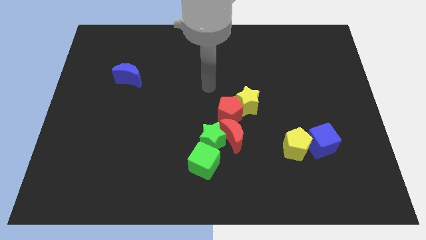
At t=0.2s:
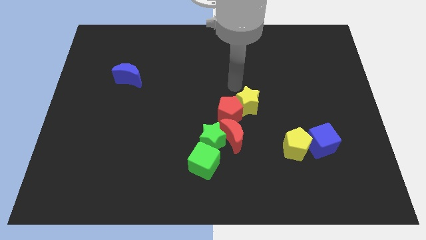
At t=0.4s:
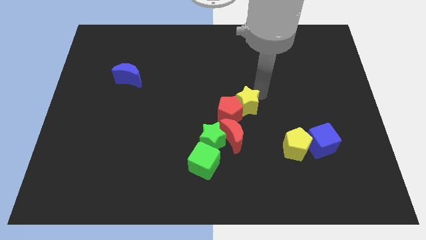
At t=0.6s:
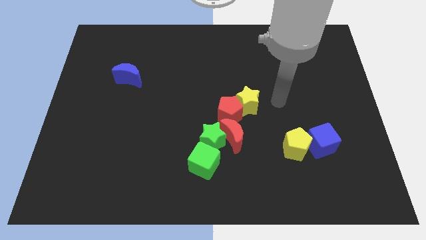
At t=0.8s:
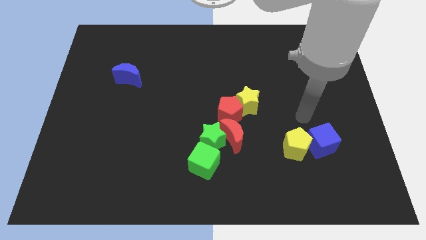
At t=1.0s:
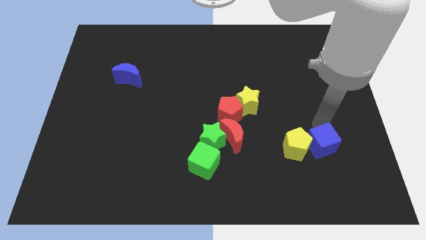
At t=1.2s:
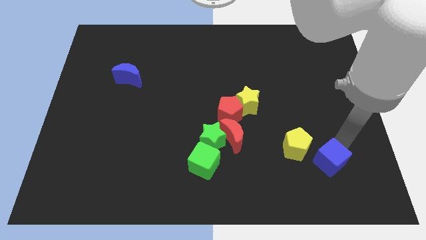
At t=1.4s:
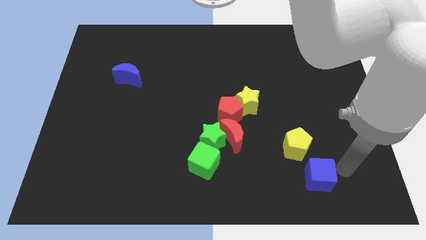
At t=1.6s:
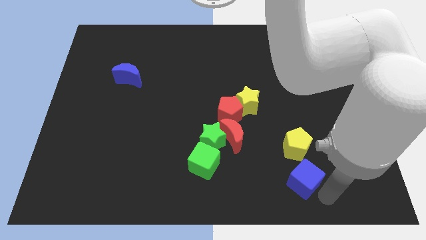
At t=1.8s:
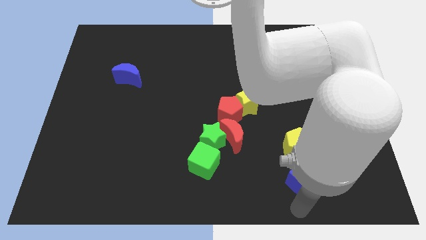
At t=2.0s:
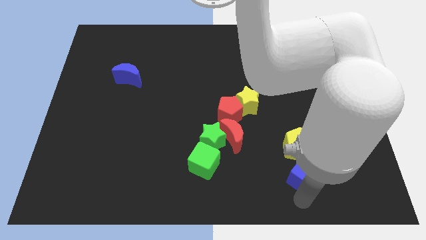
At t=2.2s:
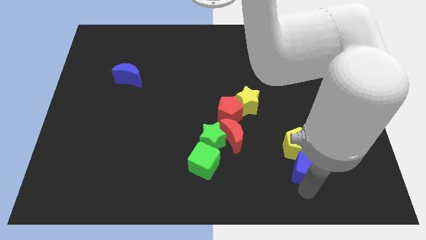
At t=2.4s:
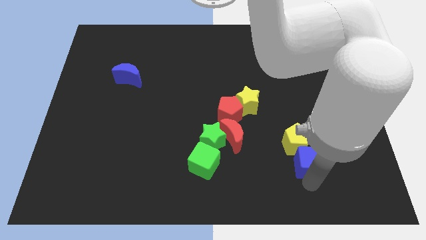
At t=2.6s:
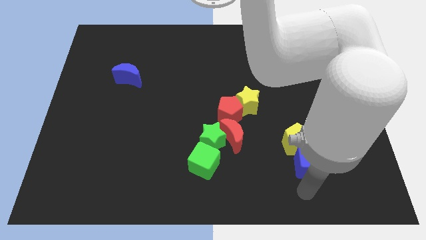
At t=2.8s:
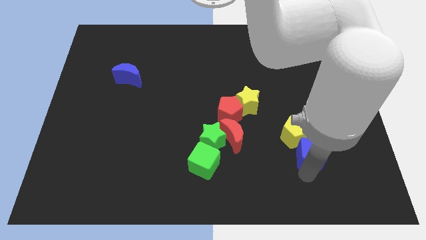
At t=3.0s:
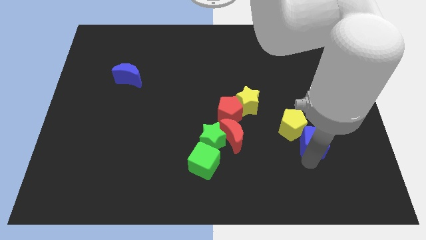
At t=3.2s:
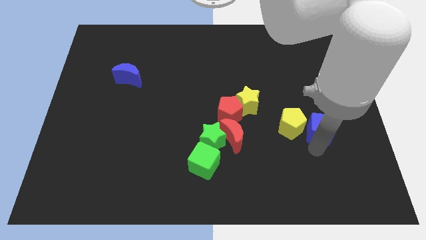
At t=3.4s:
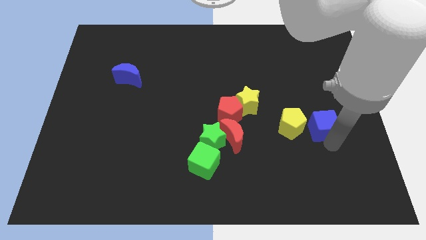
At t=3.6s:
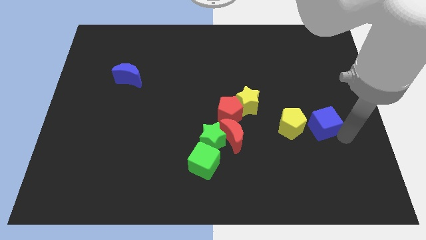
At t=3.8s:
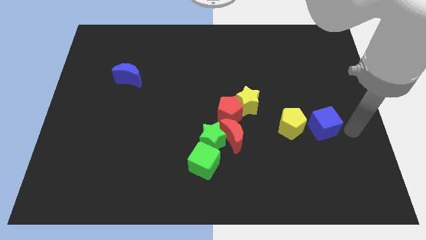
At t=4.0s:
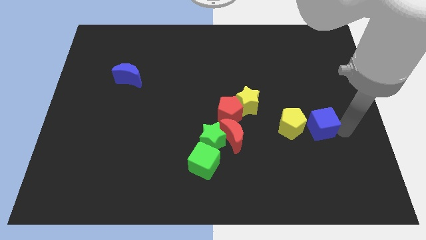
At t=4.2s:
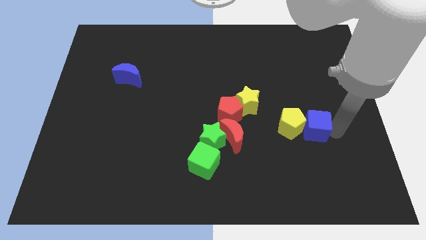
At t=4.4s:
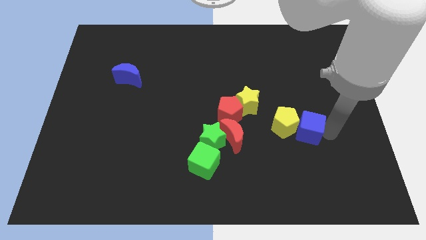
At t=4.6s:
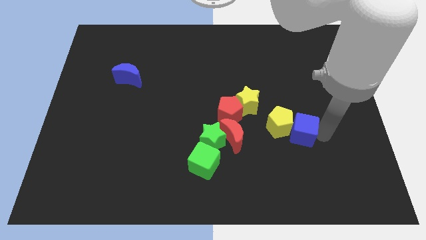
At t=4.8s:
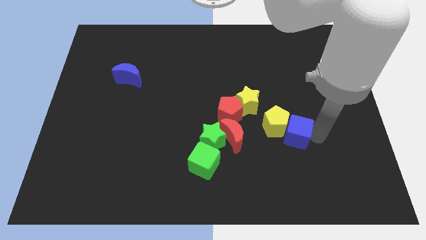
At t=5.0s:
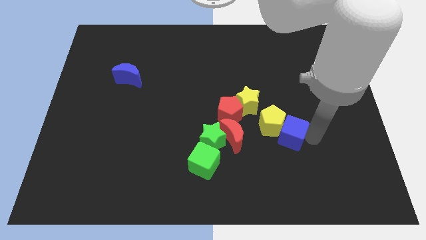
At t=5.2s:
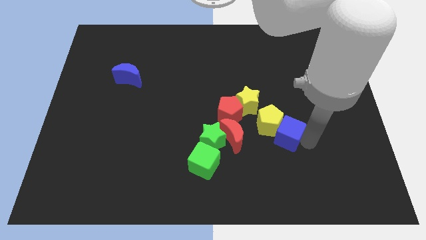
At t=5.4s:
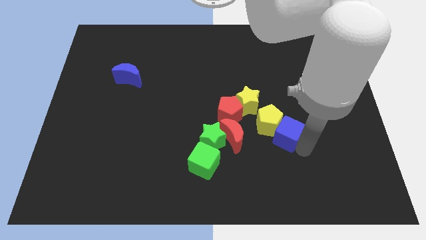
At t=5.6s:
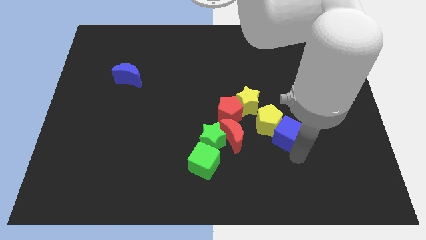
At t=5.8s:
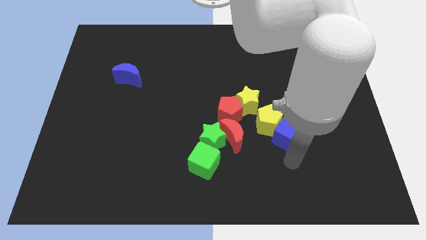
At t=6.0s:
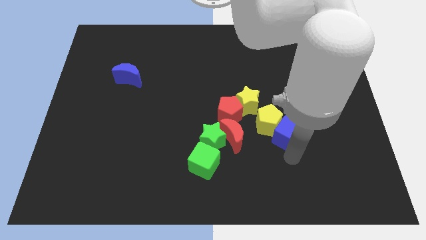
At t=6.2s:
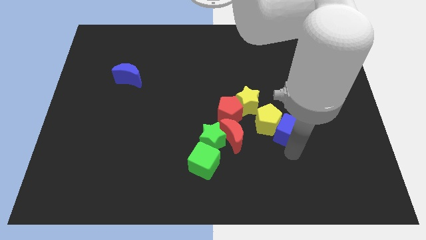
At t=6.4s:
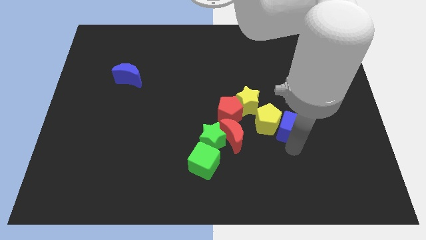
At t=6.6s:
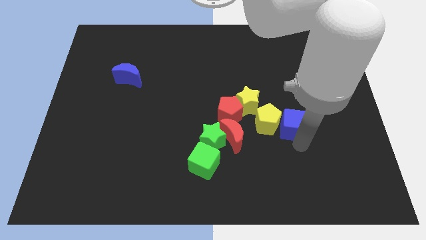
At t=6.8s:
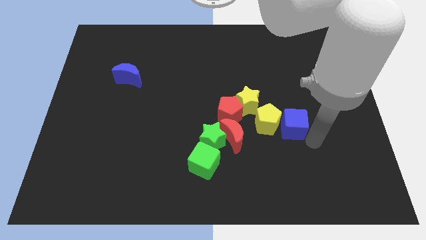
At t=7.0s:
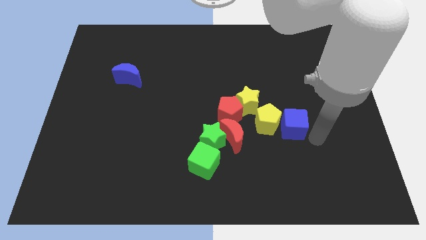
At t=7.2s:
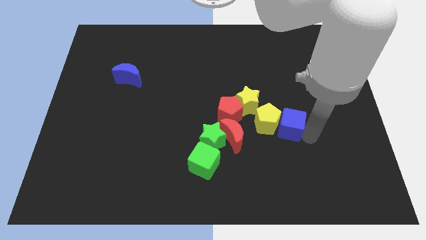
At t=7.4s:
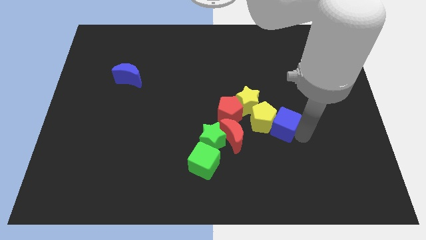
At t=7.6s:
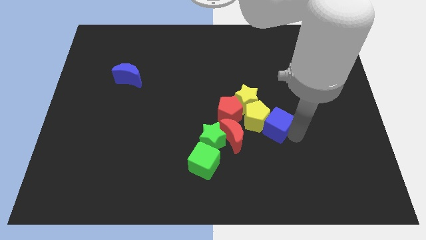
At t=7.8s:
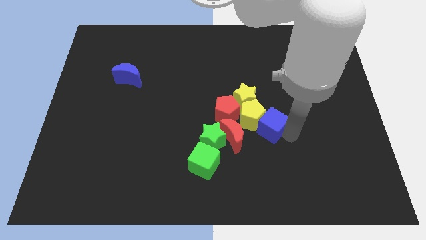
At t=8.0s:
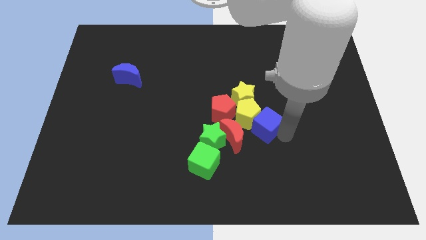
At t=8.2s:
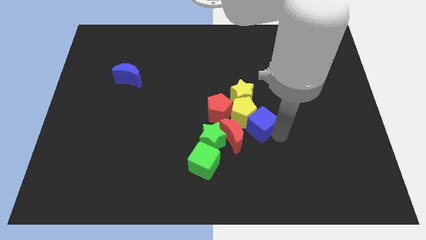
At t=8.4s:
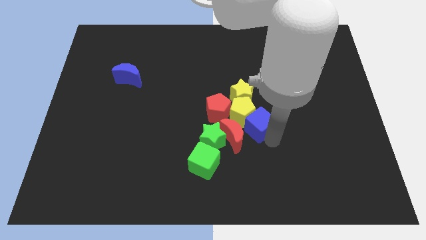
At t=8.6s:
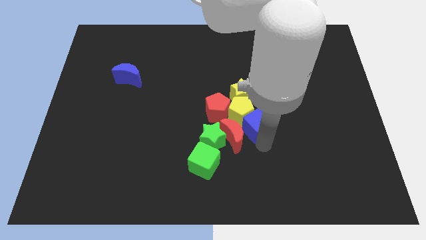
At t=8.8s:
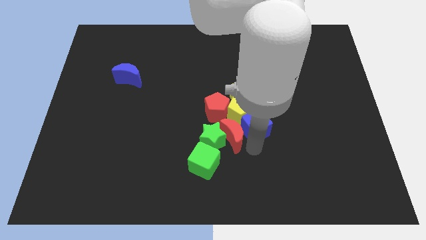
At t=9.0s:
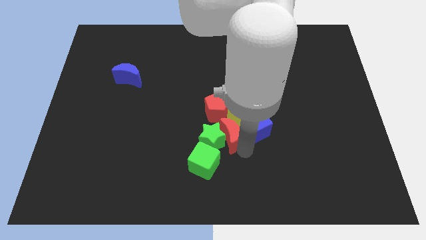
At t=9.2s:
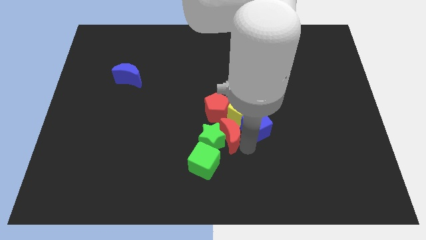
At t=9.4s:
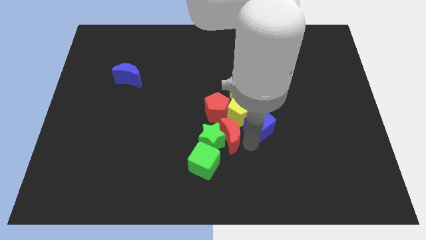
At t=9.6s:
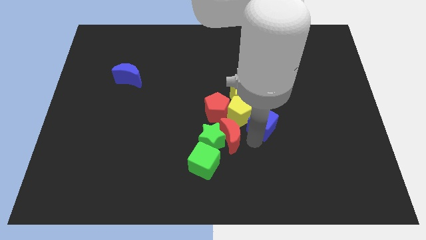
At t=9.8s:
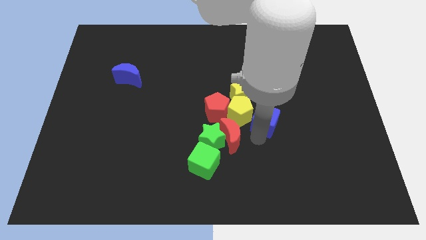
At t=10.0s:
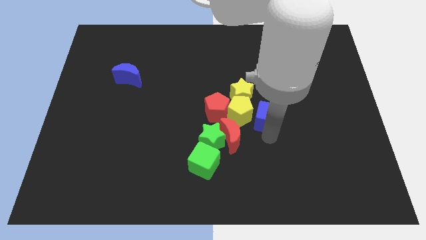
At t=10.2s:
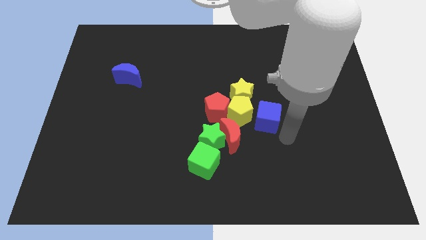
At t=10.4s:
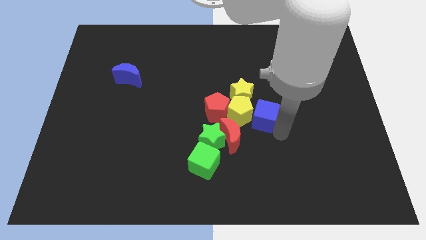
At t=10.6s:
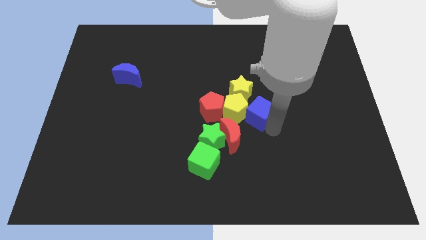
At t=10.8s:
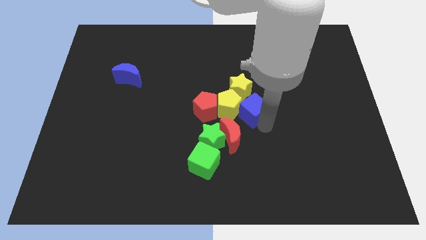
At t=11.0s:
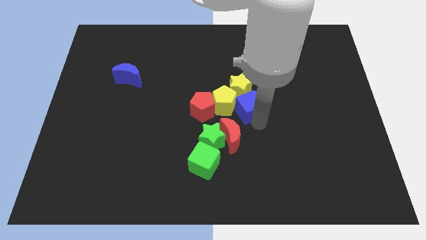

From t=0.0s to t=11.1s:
move the blue cube towards the yellow star

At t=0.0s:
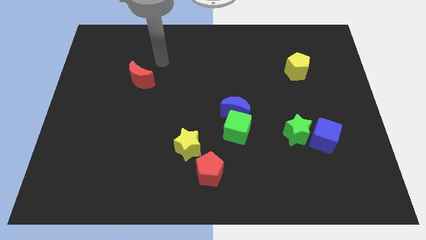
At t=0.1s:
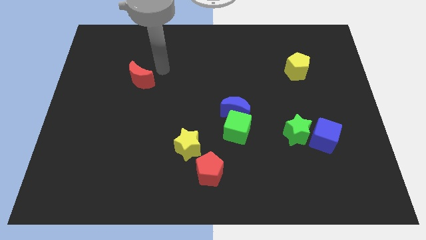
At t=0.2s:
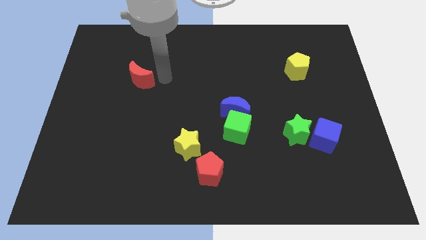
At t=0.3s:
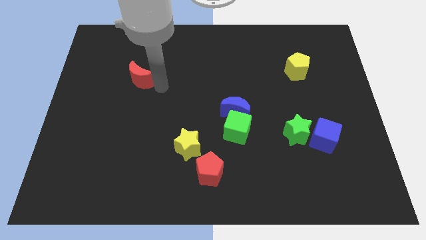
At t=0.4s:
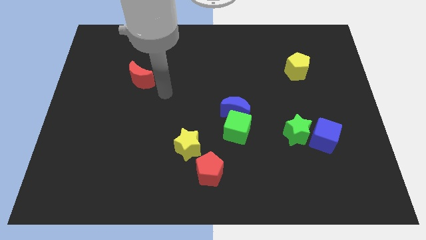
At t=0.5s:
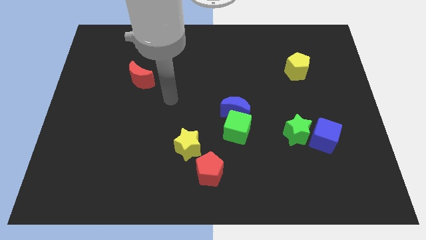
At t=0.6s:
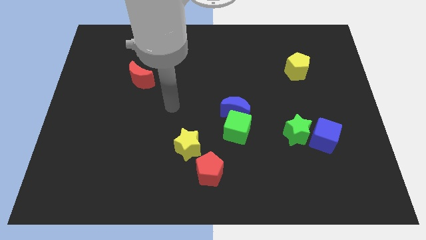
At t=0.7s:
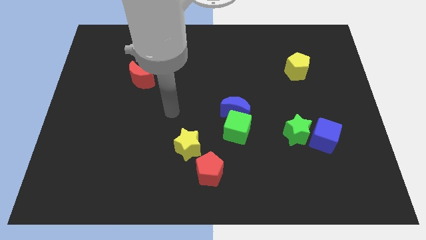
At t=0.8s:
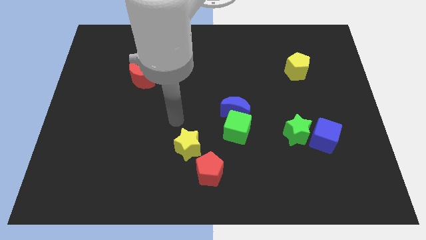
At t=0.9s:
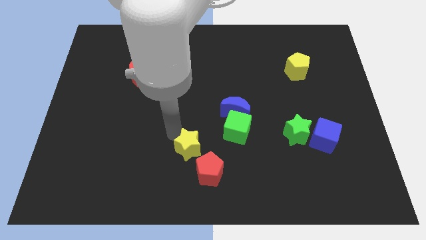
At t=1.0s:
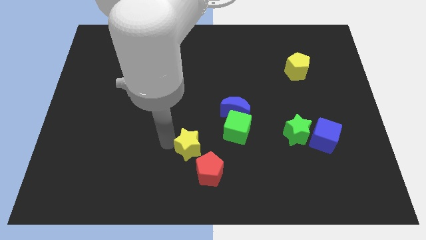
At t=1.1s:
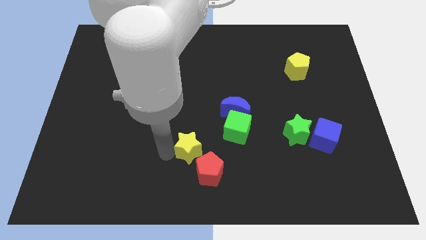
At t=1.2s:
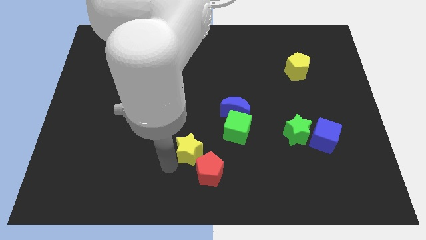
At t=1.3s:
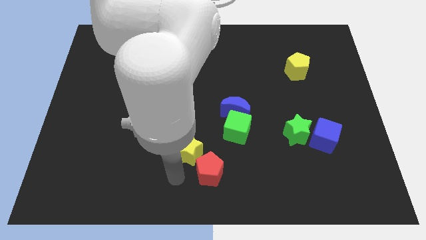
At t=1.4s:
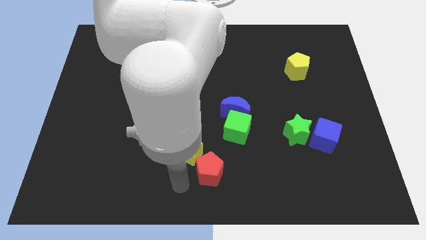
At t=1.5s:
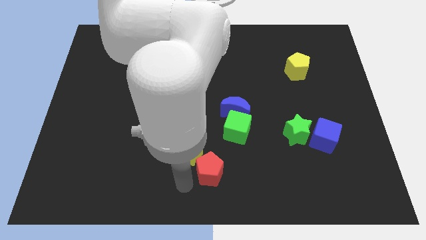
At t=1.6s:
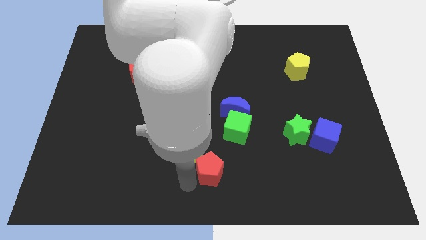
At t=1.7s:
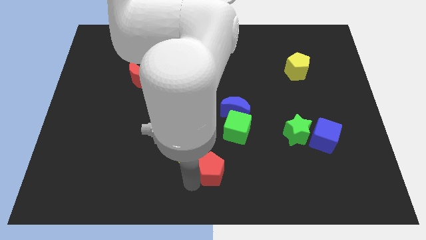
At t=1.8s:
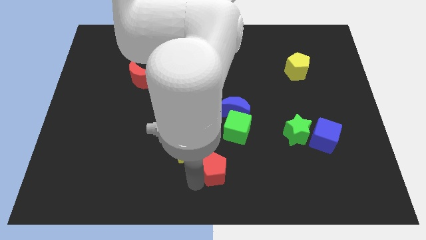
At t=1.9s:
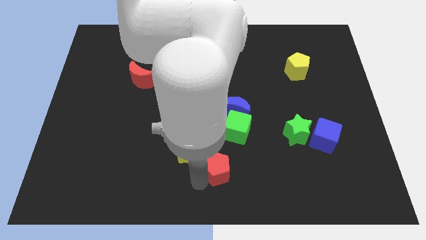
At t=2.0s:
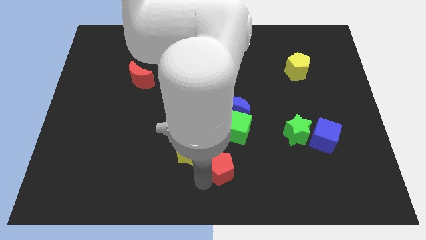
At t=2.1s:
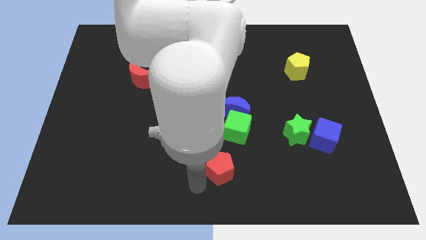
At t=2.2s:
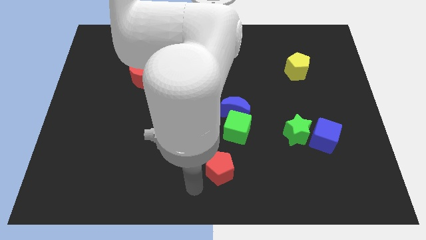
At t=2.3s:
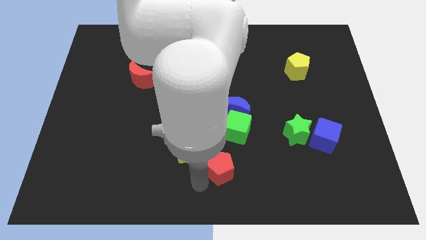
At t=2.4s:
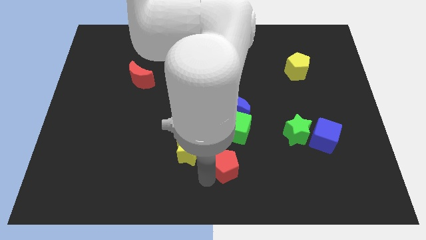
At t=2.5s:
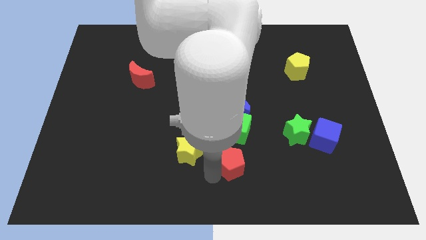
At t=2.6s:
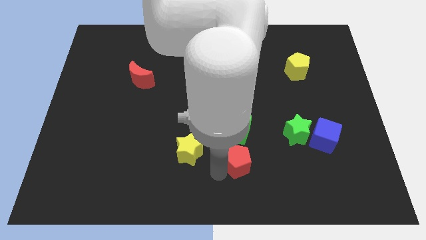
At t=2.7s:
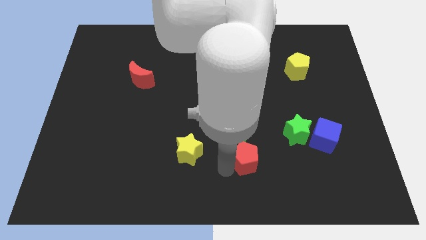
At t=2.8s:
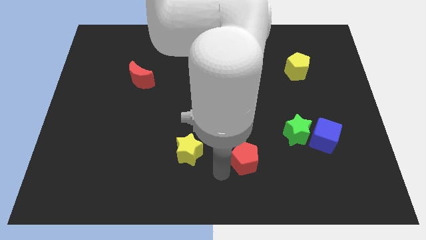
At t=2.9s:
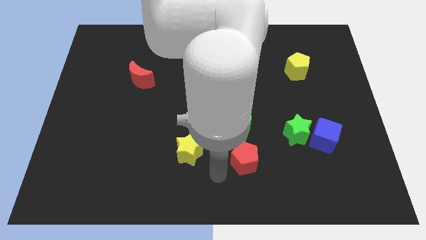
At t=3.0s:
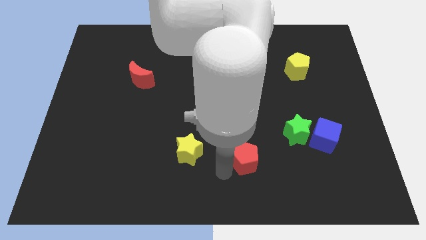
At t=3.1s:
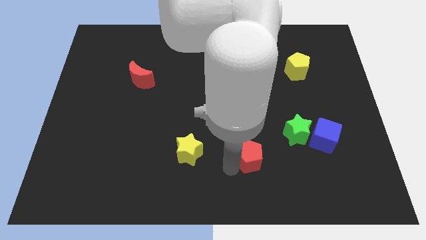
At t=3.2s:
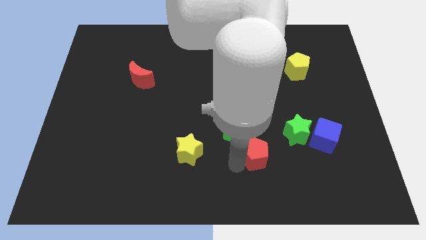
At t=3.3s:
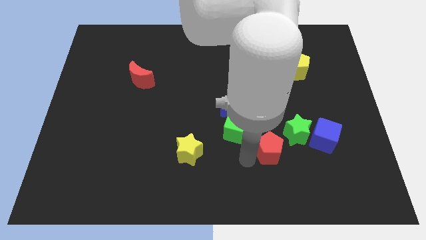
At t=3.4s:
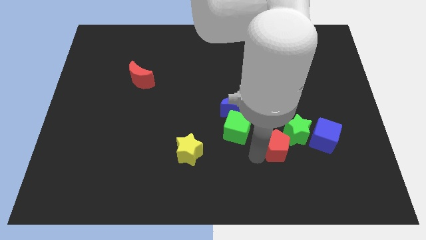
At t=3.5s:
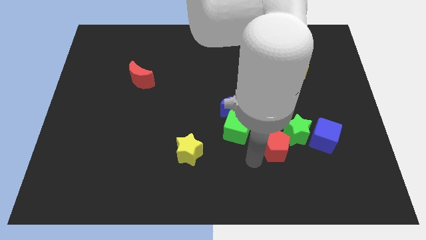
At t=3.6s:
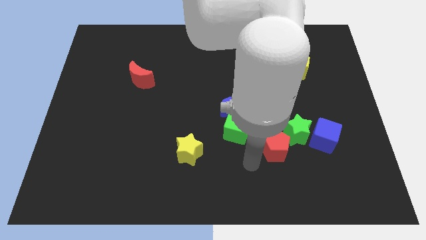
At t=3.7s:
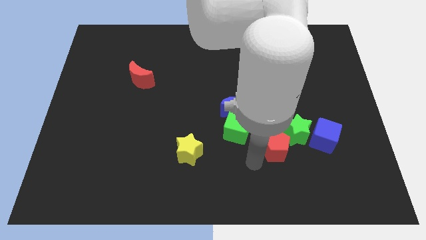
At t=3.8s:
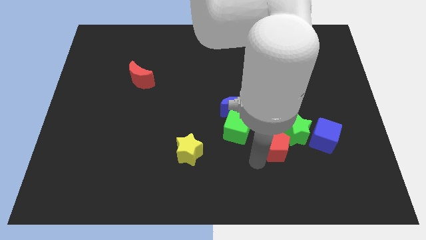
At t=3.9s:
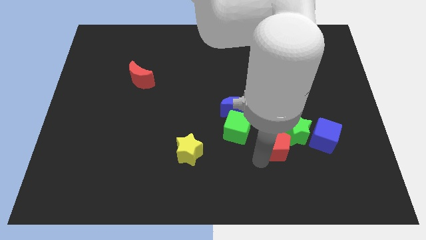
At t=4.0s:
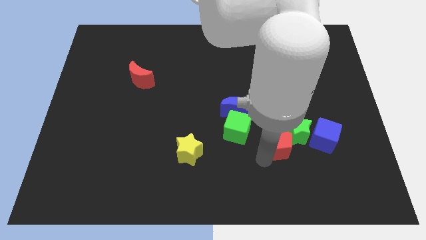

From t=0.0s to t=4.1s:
put the red pentagon close to the green star
